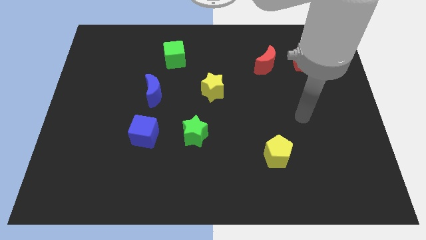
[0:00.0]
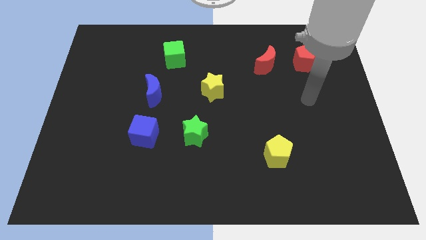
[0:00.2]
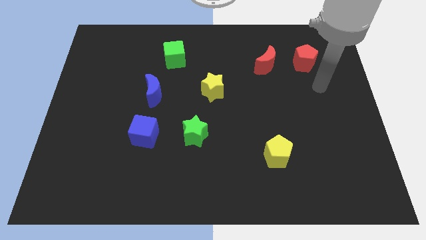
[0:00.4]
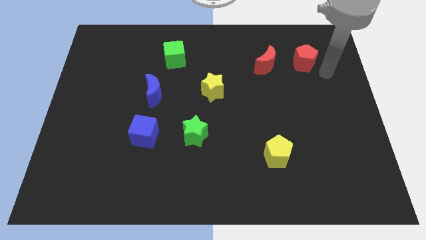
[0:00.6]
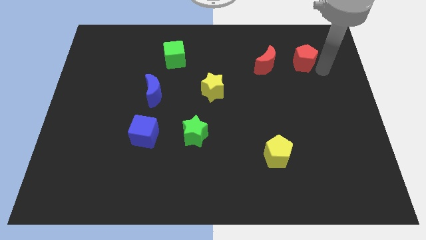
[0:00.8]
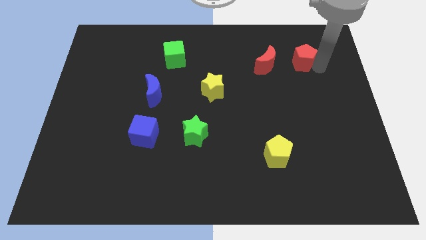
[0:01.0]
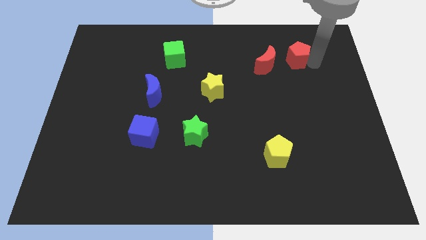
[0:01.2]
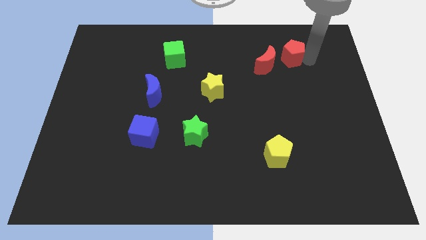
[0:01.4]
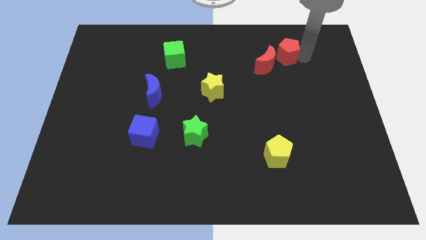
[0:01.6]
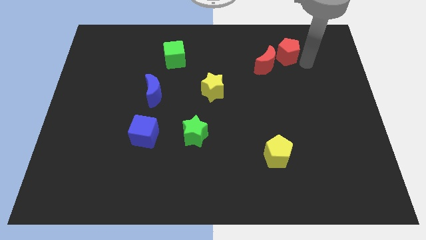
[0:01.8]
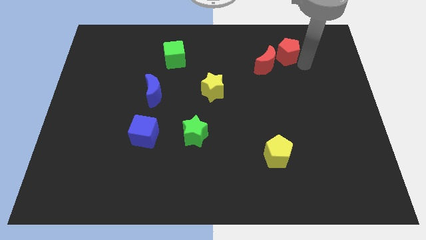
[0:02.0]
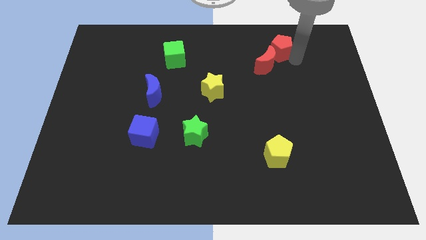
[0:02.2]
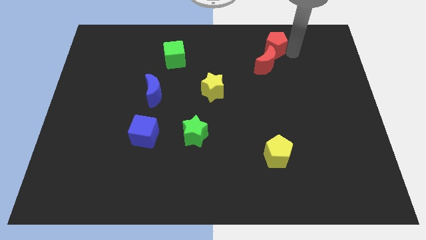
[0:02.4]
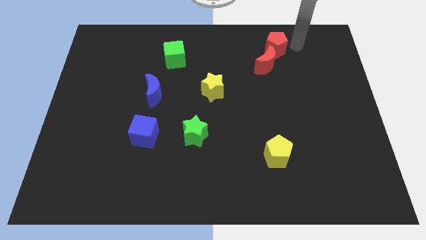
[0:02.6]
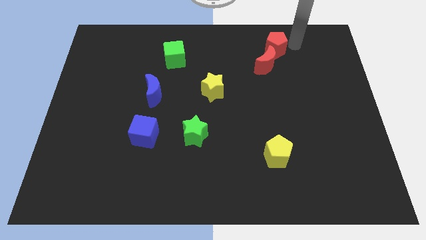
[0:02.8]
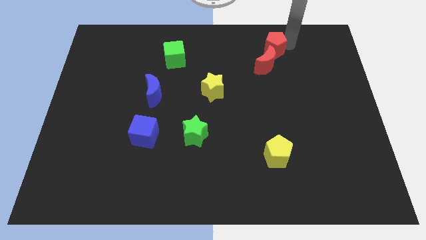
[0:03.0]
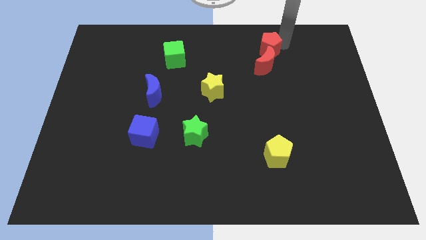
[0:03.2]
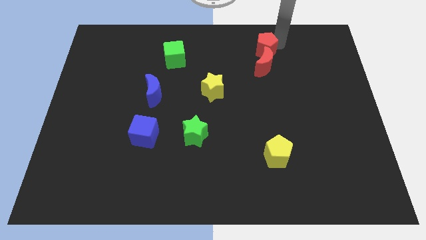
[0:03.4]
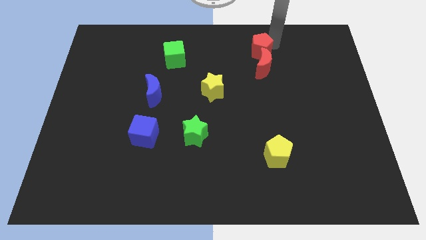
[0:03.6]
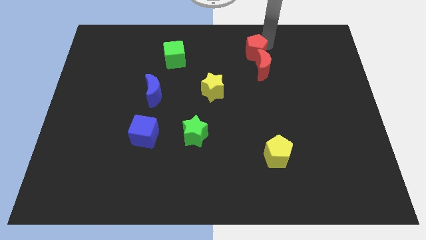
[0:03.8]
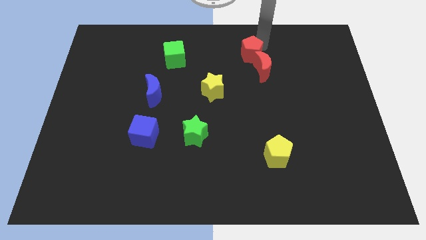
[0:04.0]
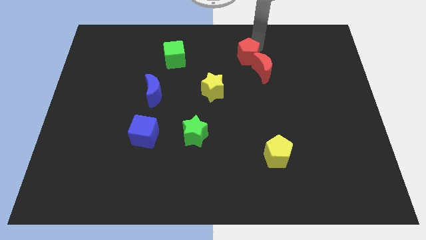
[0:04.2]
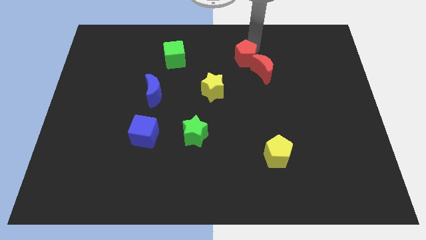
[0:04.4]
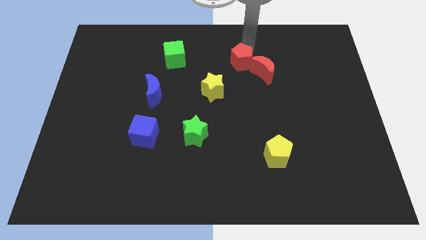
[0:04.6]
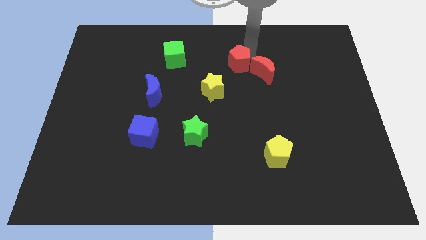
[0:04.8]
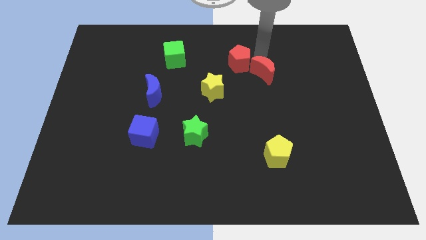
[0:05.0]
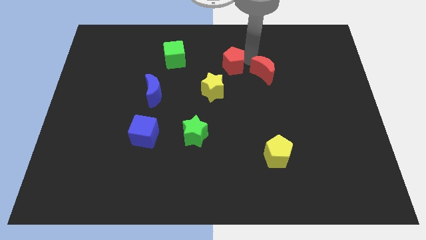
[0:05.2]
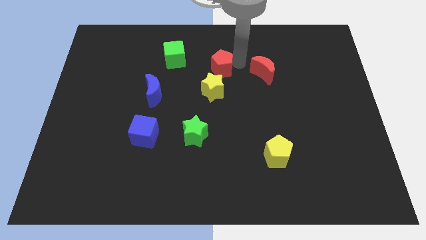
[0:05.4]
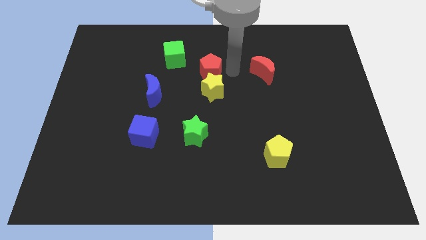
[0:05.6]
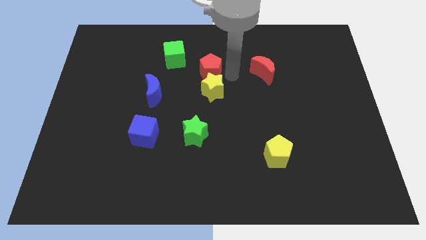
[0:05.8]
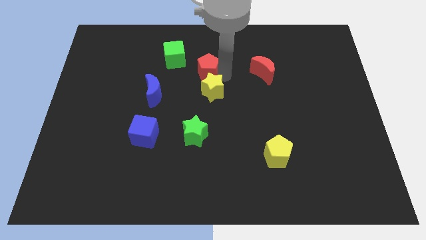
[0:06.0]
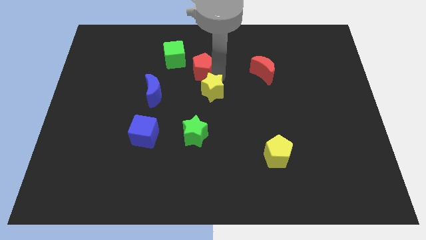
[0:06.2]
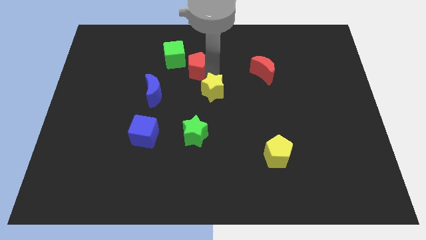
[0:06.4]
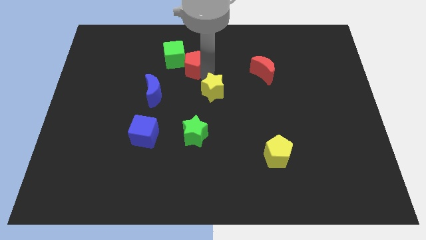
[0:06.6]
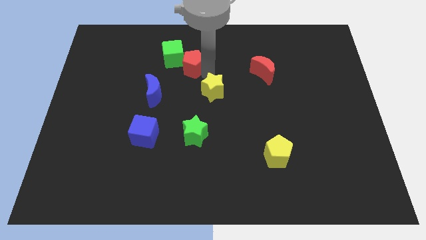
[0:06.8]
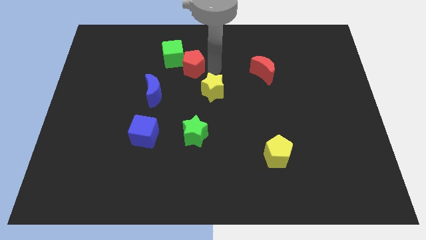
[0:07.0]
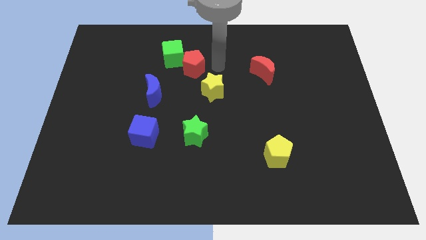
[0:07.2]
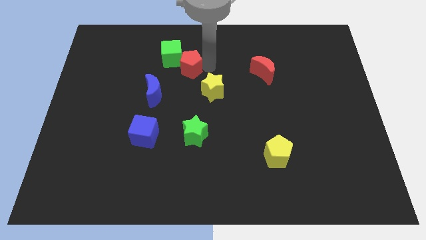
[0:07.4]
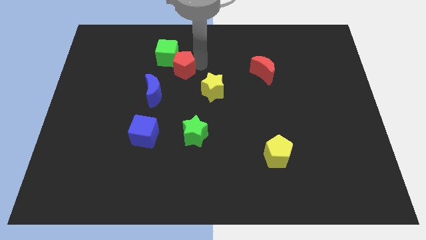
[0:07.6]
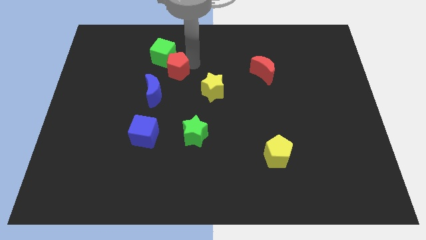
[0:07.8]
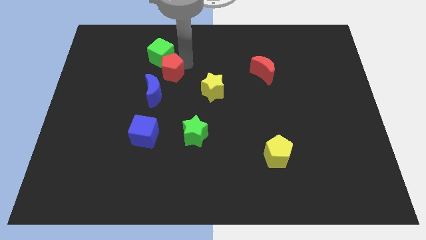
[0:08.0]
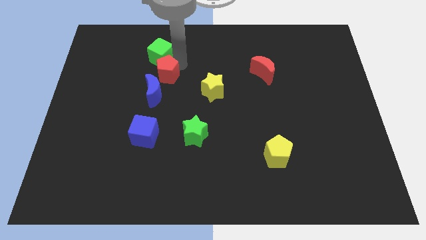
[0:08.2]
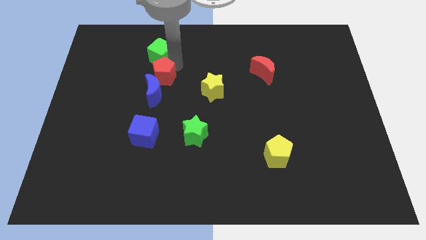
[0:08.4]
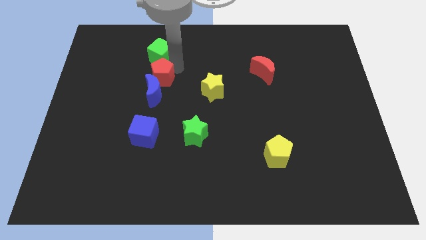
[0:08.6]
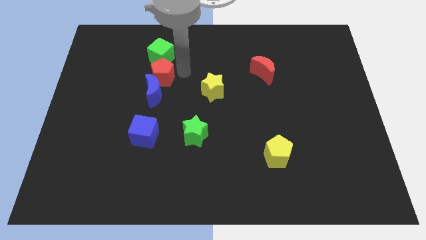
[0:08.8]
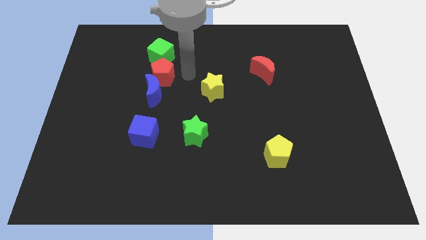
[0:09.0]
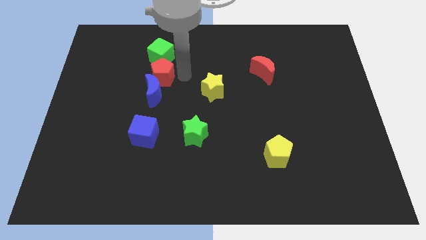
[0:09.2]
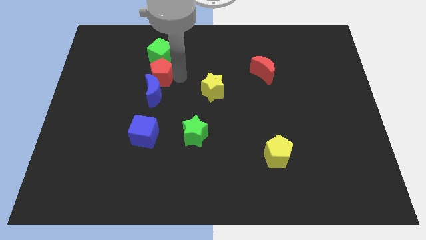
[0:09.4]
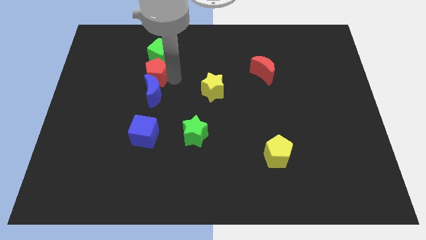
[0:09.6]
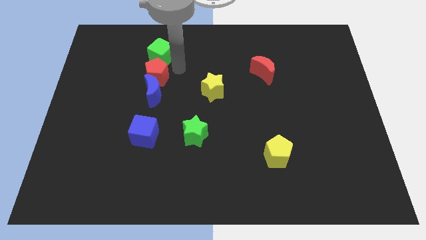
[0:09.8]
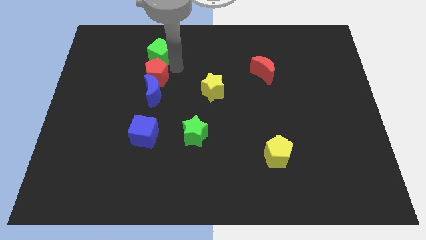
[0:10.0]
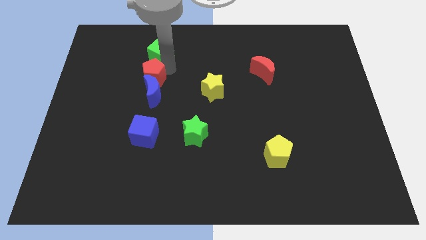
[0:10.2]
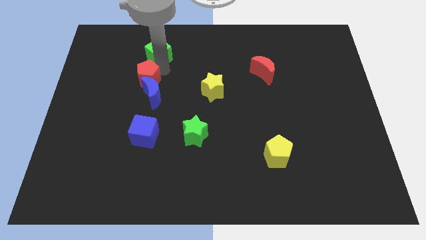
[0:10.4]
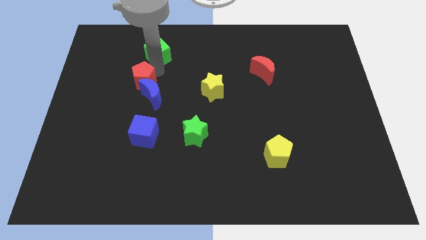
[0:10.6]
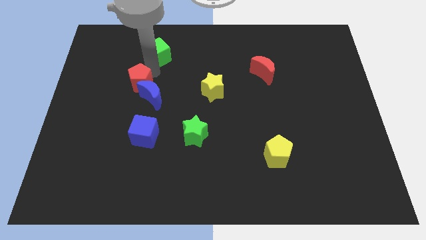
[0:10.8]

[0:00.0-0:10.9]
push the red pentagon left of the blue moon

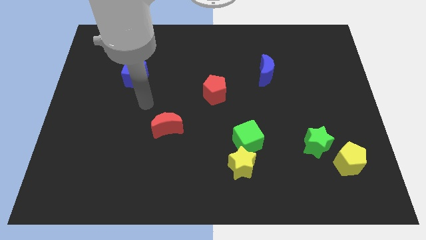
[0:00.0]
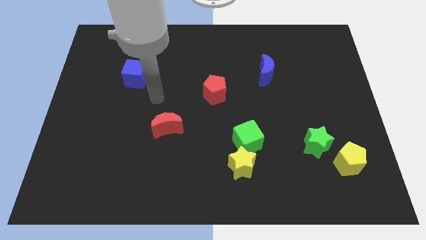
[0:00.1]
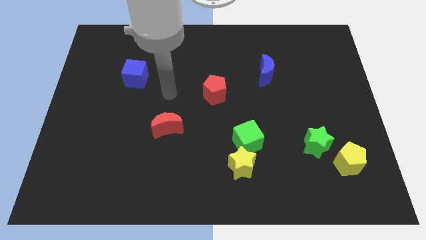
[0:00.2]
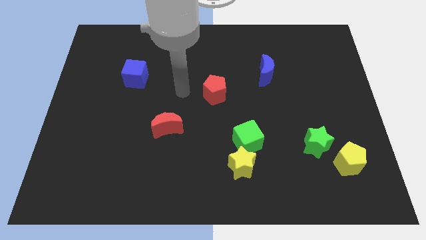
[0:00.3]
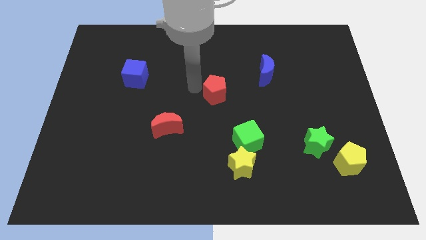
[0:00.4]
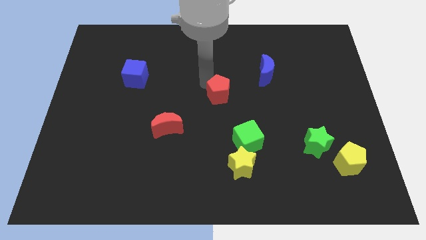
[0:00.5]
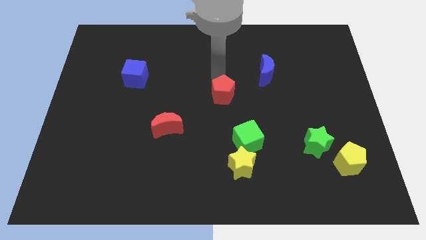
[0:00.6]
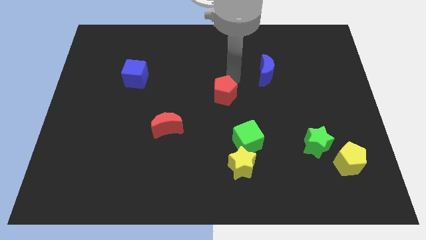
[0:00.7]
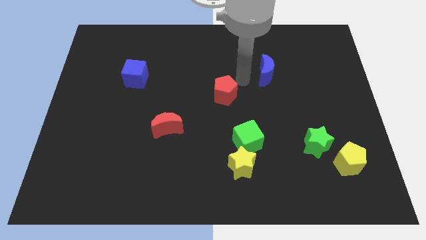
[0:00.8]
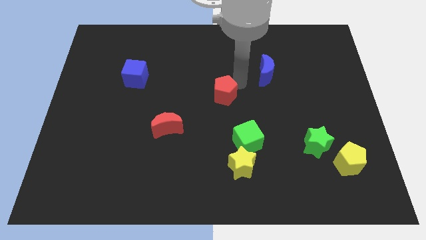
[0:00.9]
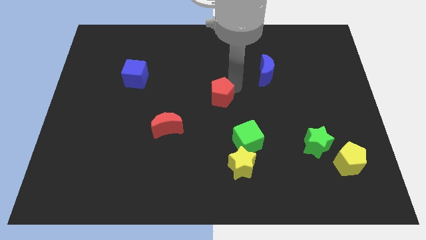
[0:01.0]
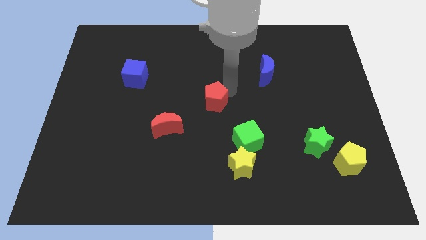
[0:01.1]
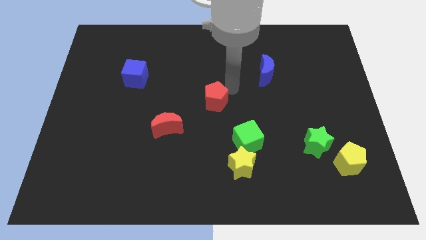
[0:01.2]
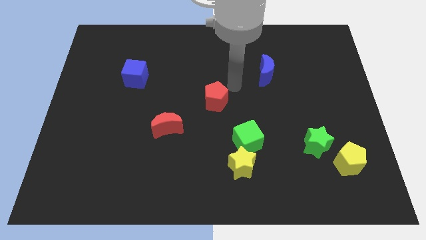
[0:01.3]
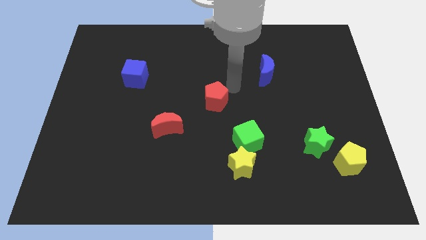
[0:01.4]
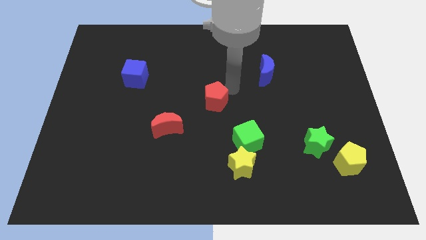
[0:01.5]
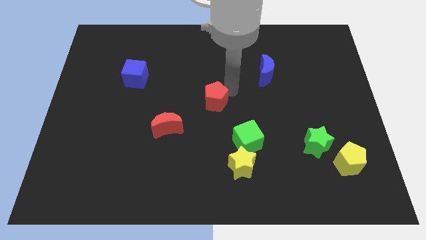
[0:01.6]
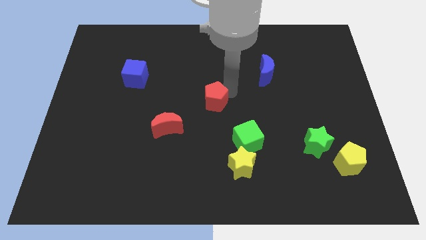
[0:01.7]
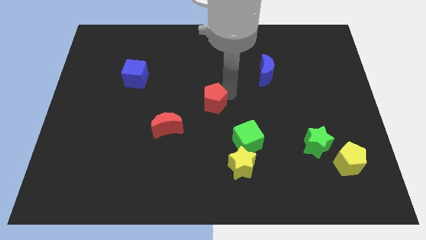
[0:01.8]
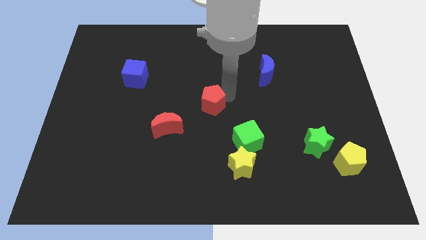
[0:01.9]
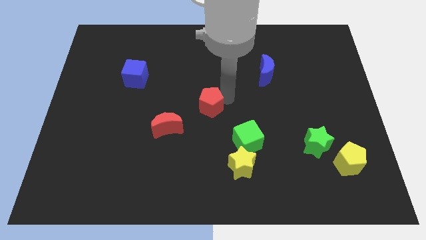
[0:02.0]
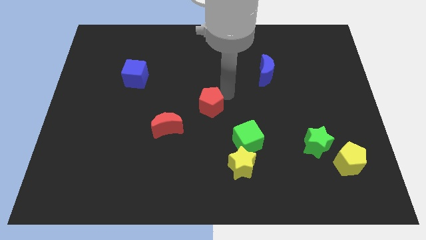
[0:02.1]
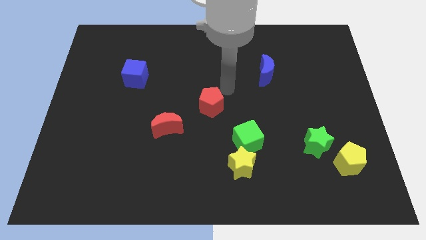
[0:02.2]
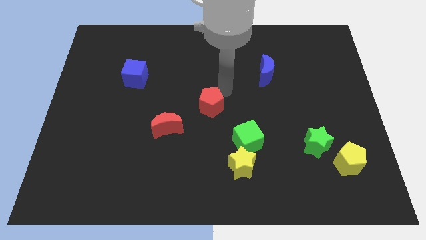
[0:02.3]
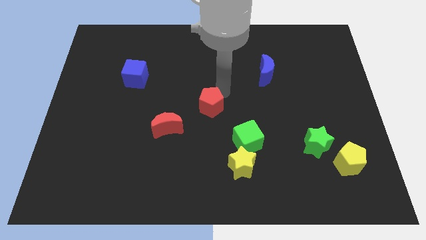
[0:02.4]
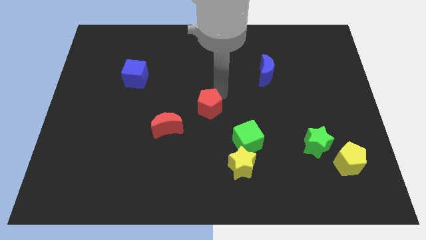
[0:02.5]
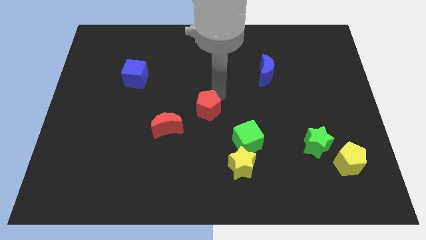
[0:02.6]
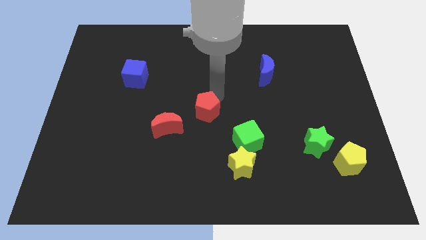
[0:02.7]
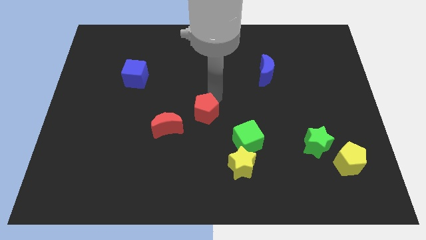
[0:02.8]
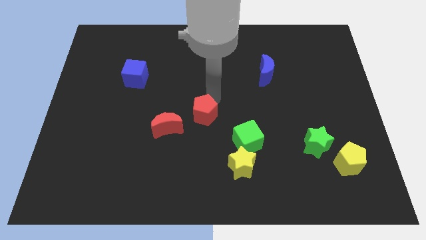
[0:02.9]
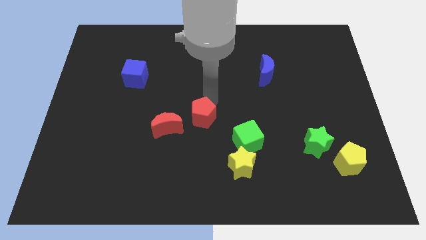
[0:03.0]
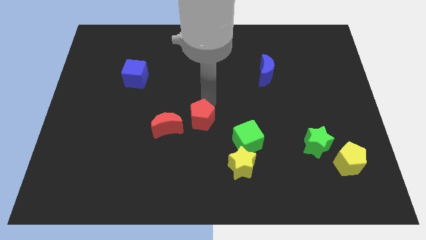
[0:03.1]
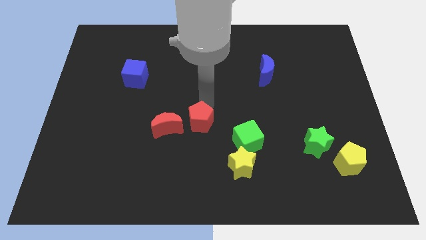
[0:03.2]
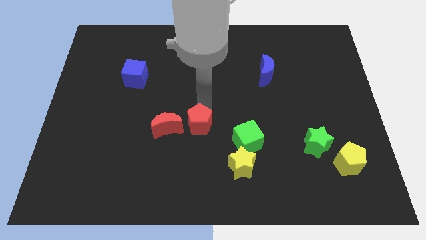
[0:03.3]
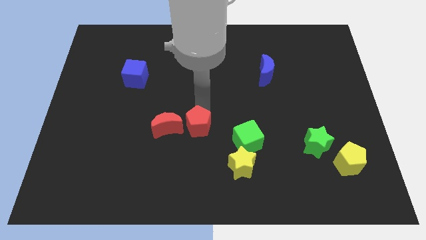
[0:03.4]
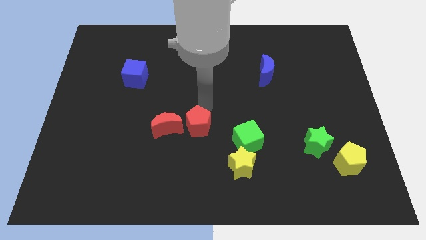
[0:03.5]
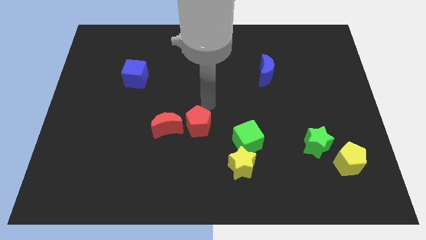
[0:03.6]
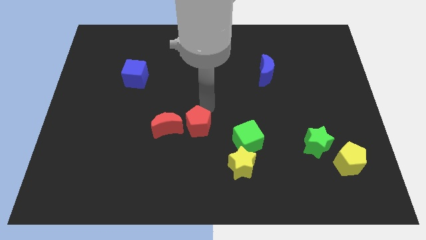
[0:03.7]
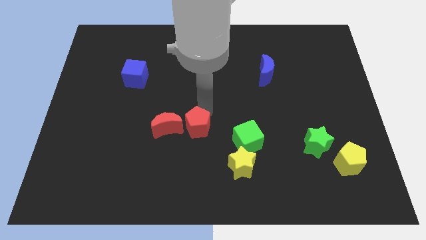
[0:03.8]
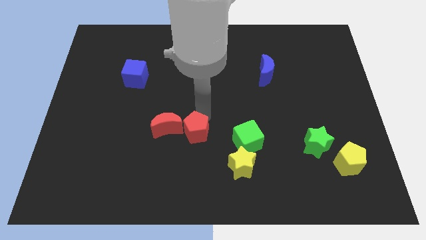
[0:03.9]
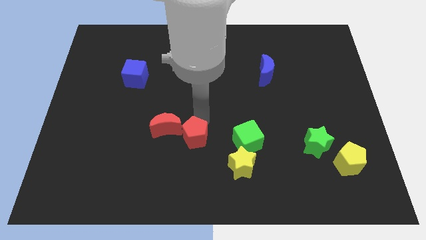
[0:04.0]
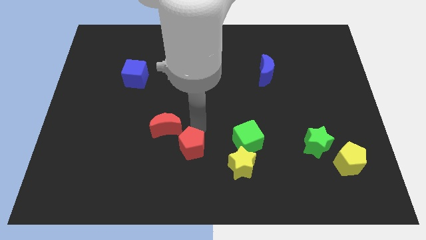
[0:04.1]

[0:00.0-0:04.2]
move the red pentagon just left of the yellow star
